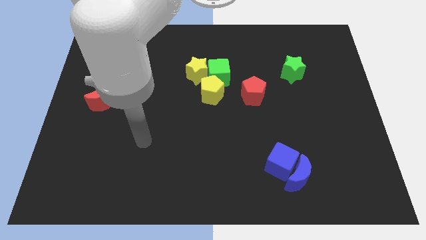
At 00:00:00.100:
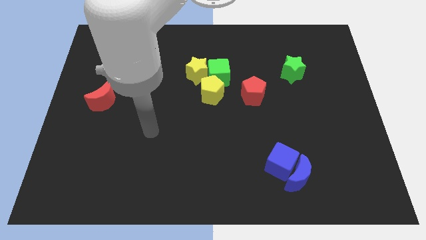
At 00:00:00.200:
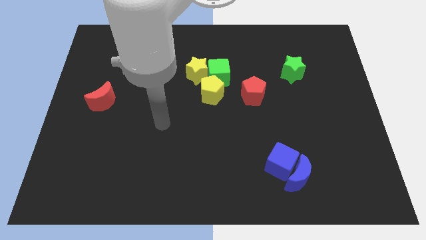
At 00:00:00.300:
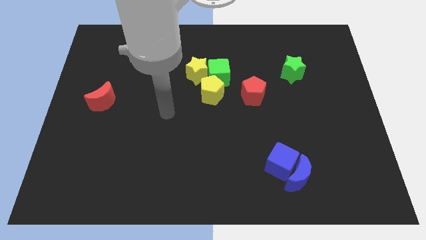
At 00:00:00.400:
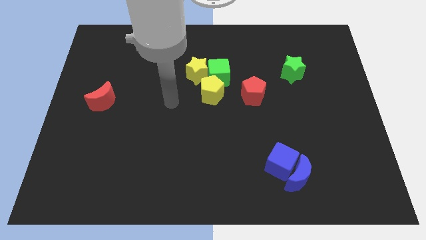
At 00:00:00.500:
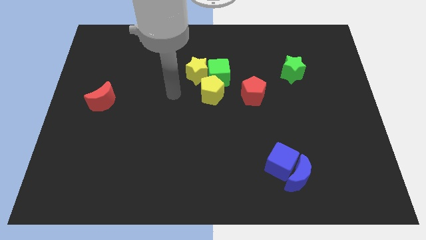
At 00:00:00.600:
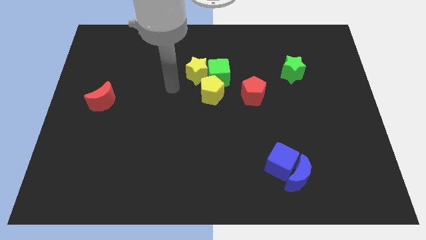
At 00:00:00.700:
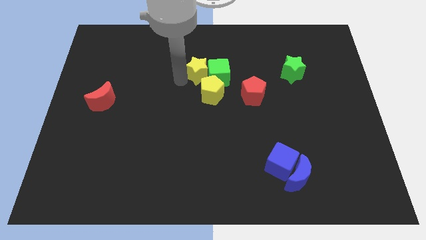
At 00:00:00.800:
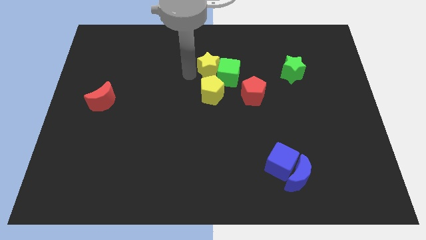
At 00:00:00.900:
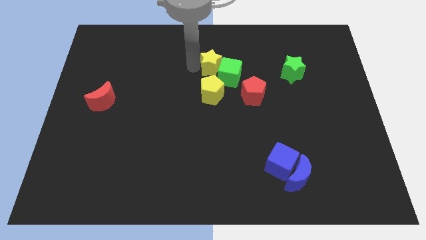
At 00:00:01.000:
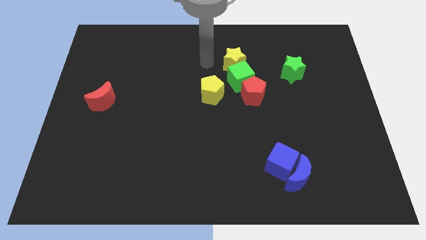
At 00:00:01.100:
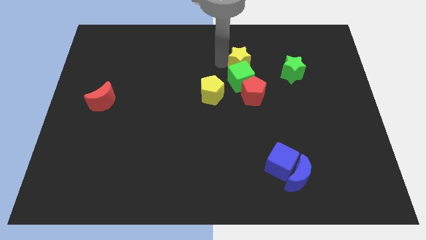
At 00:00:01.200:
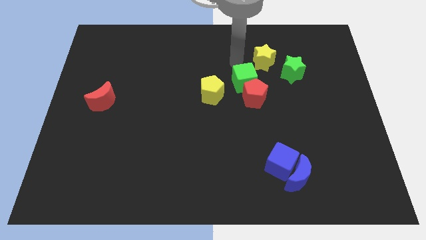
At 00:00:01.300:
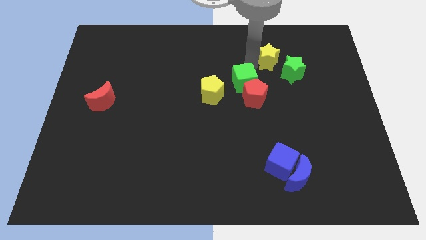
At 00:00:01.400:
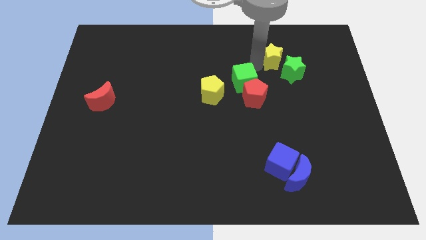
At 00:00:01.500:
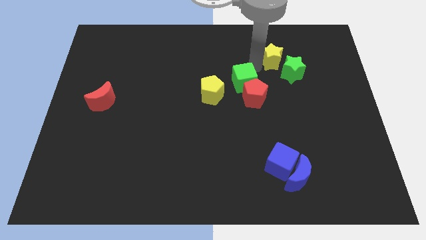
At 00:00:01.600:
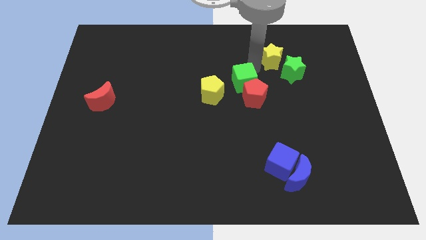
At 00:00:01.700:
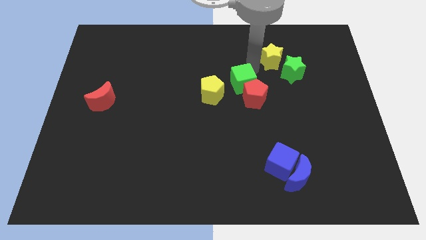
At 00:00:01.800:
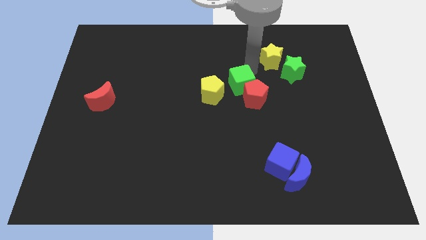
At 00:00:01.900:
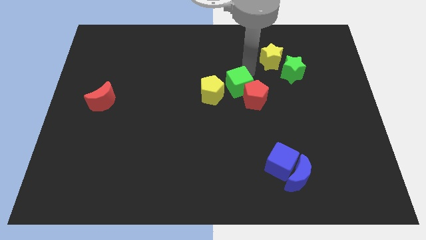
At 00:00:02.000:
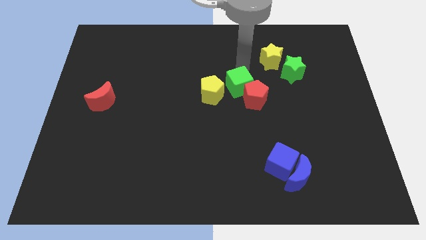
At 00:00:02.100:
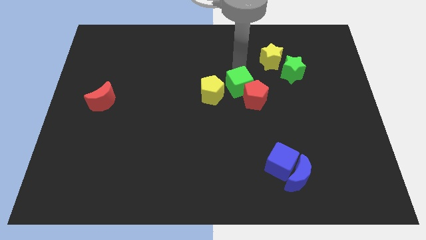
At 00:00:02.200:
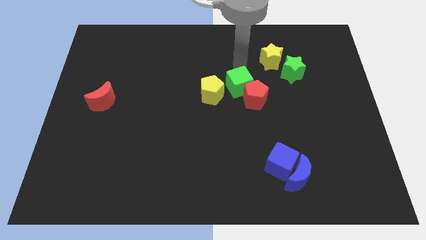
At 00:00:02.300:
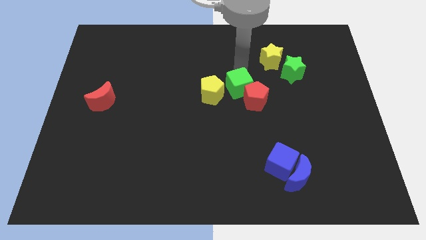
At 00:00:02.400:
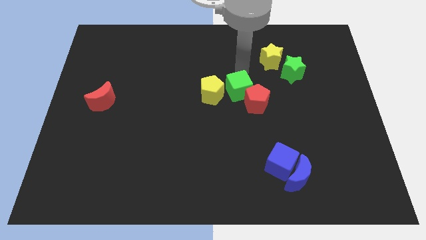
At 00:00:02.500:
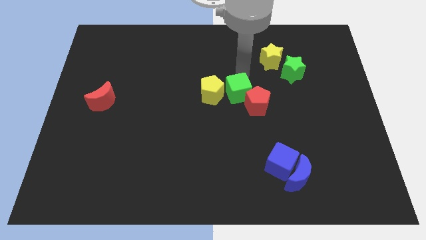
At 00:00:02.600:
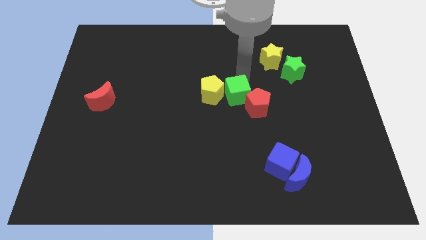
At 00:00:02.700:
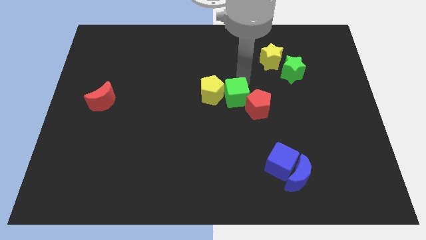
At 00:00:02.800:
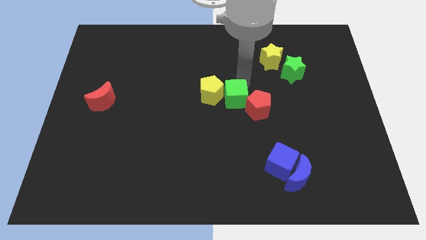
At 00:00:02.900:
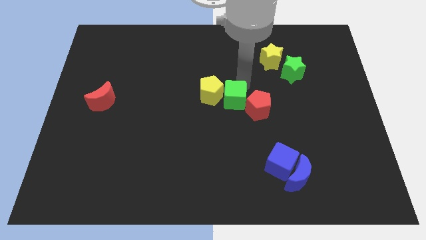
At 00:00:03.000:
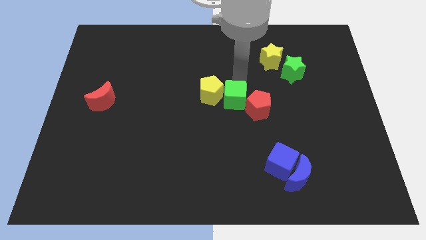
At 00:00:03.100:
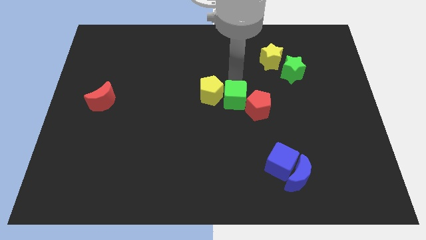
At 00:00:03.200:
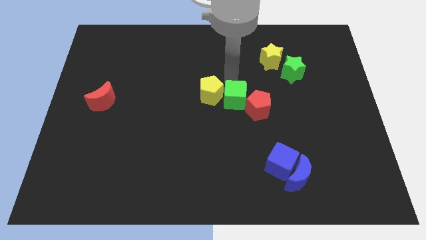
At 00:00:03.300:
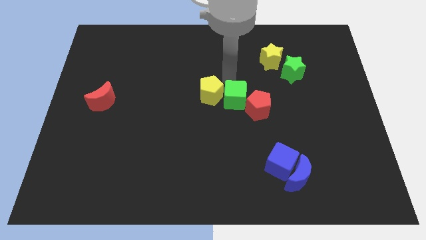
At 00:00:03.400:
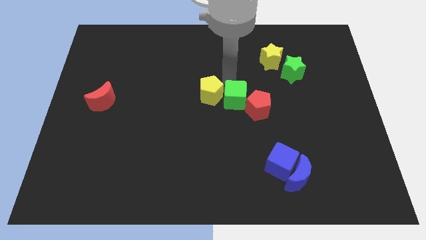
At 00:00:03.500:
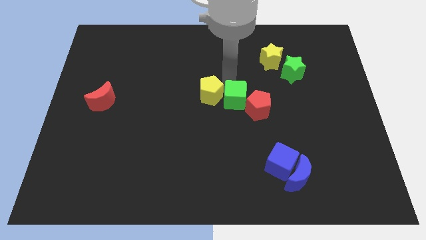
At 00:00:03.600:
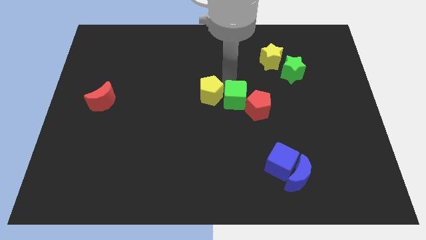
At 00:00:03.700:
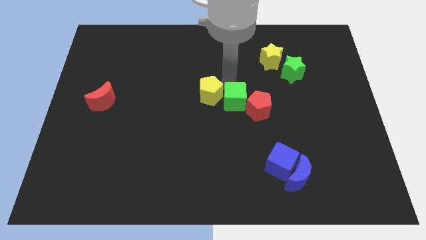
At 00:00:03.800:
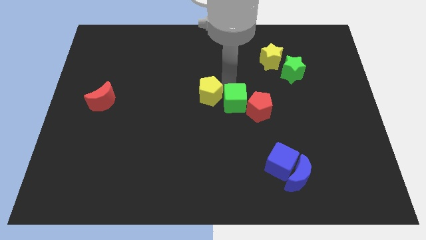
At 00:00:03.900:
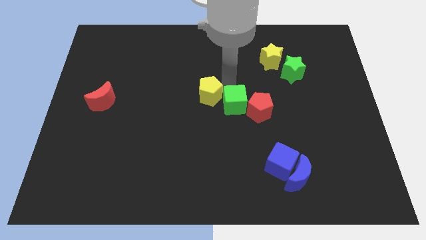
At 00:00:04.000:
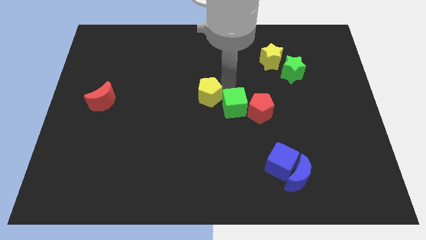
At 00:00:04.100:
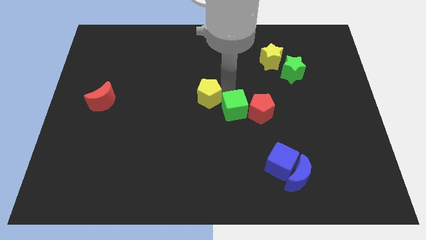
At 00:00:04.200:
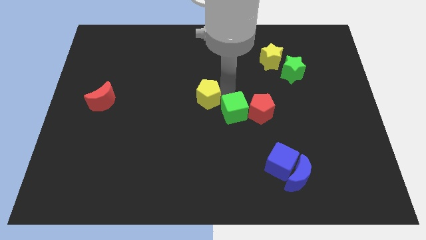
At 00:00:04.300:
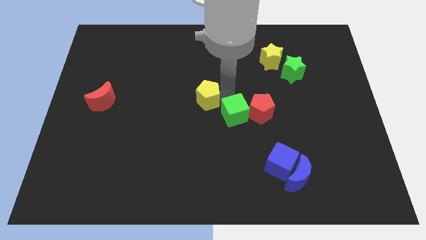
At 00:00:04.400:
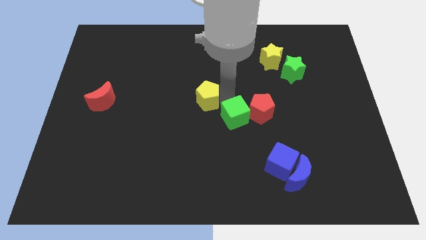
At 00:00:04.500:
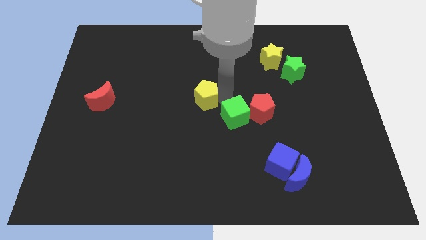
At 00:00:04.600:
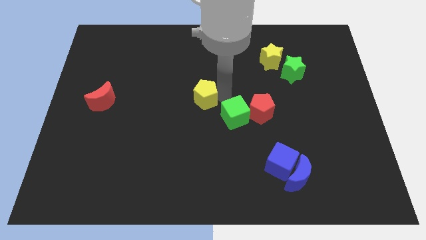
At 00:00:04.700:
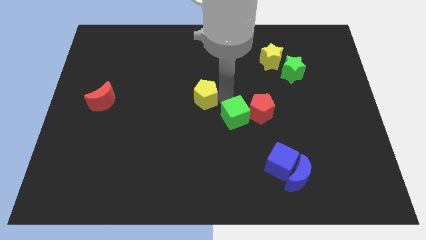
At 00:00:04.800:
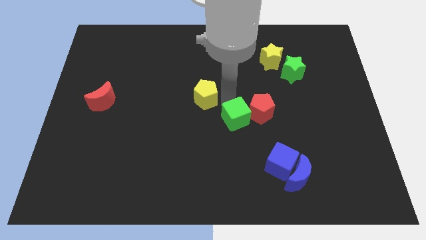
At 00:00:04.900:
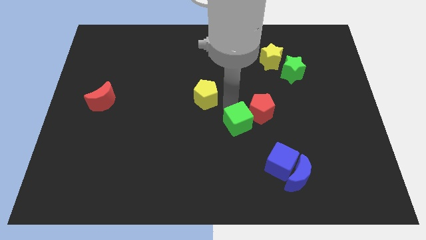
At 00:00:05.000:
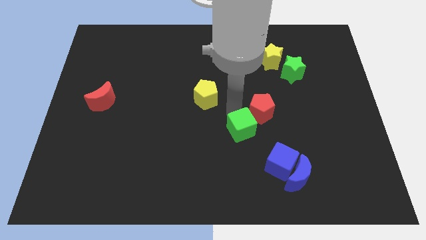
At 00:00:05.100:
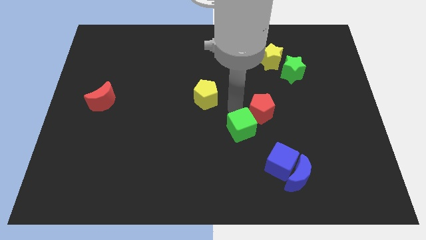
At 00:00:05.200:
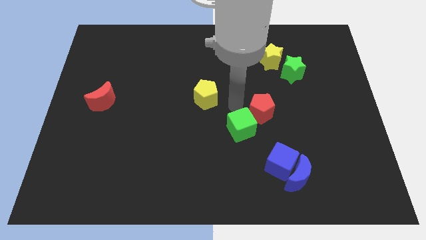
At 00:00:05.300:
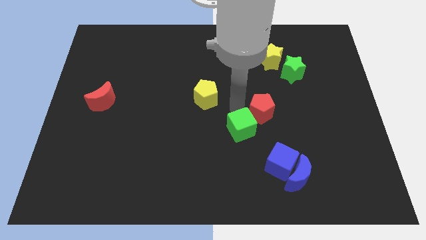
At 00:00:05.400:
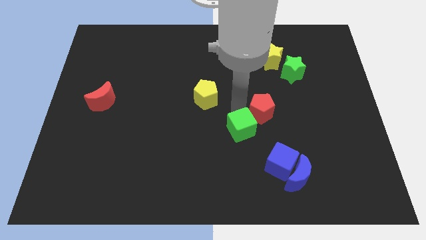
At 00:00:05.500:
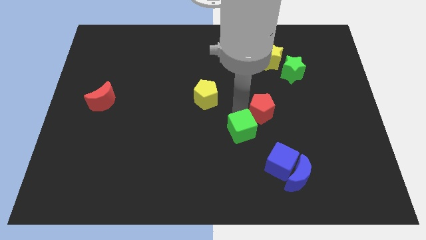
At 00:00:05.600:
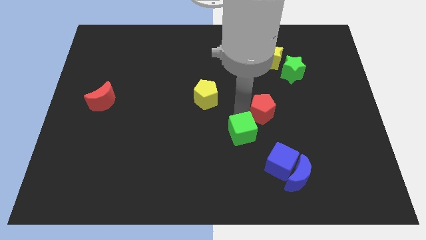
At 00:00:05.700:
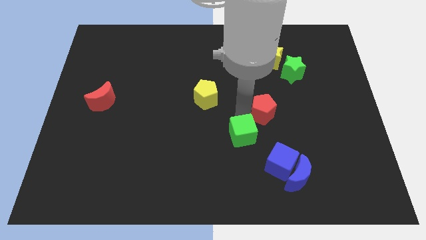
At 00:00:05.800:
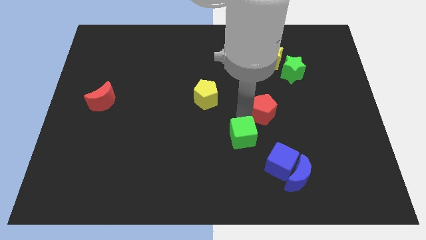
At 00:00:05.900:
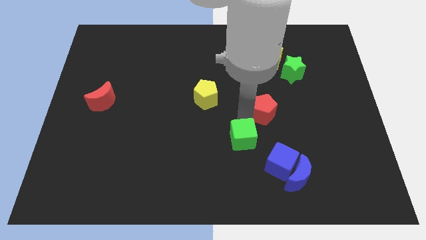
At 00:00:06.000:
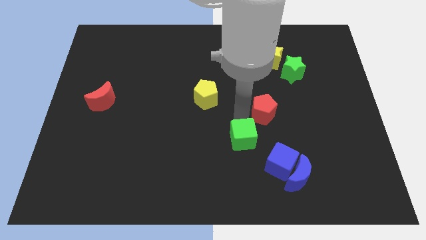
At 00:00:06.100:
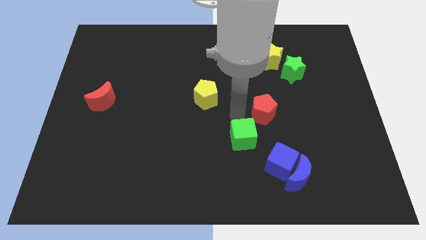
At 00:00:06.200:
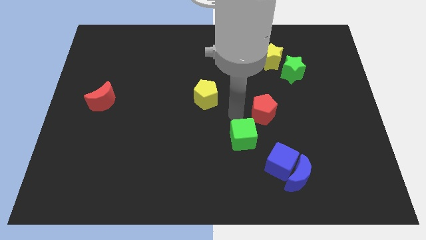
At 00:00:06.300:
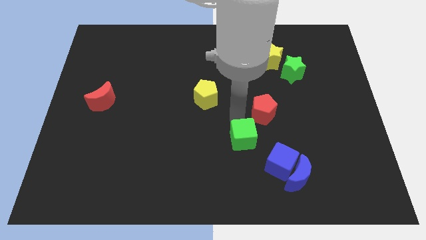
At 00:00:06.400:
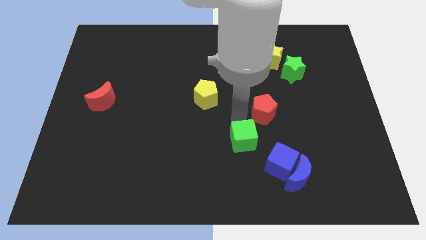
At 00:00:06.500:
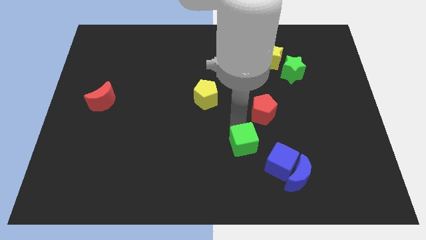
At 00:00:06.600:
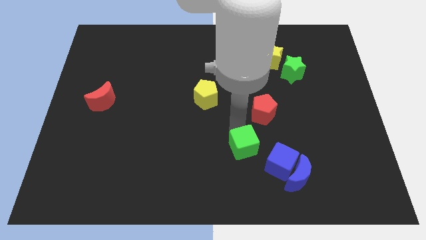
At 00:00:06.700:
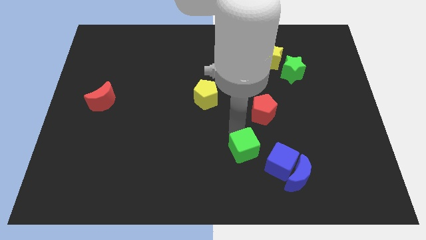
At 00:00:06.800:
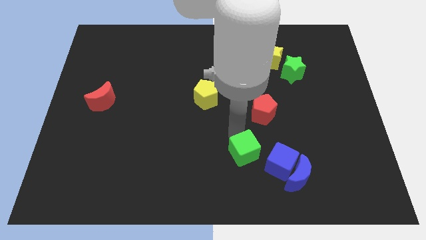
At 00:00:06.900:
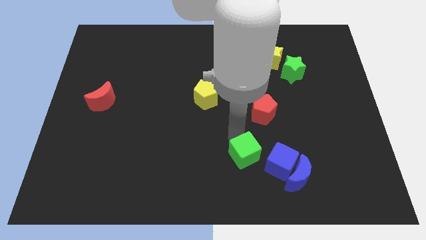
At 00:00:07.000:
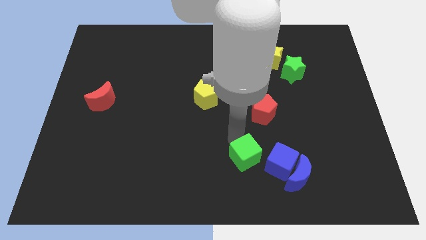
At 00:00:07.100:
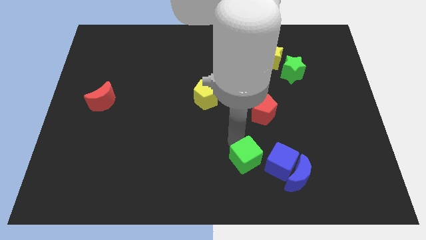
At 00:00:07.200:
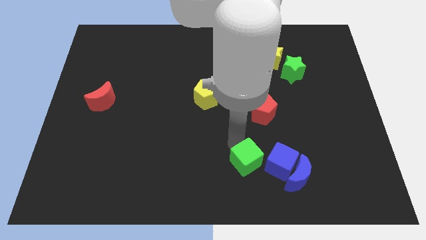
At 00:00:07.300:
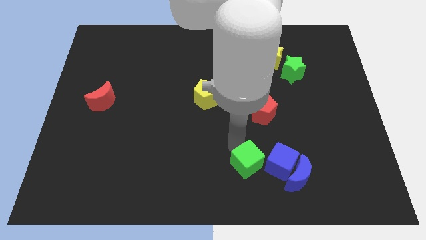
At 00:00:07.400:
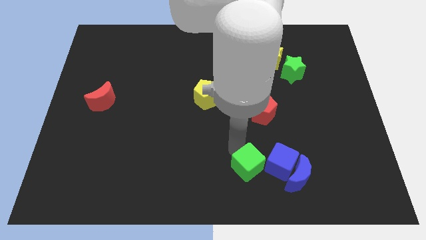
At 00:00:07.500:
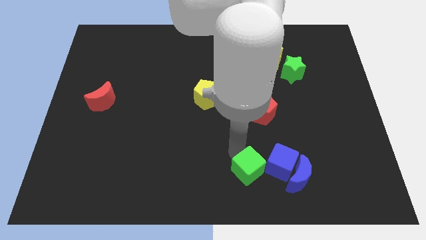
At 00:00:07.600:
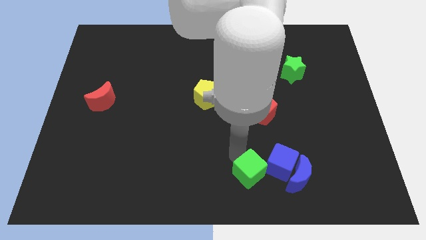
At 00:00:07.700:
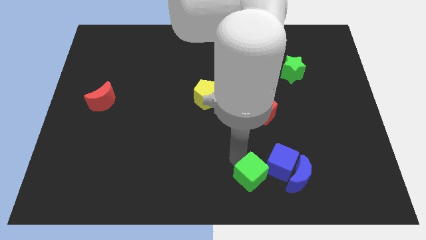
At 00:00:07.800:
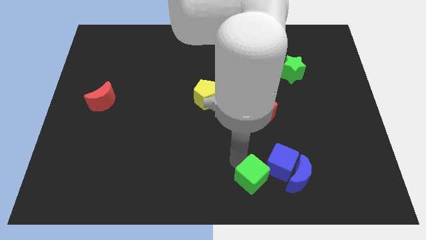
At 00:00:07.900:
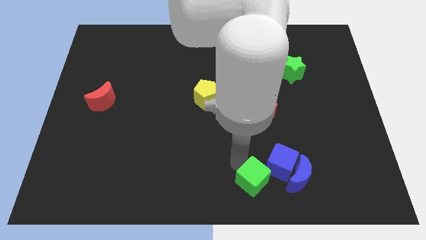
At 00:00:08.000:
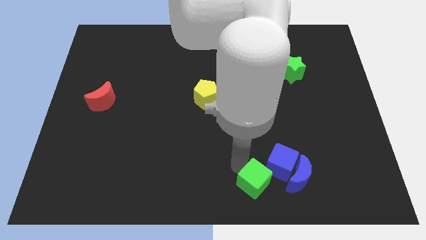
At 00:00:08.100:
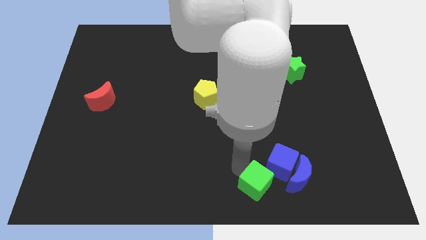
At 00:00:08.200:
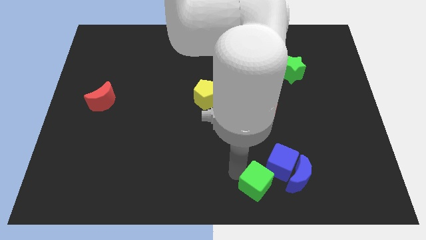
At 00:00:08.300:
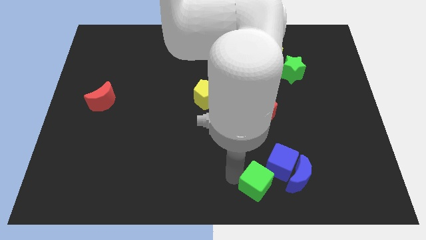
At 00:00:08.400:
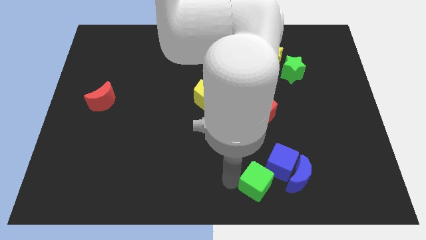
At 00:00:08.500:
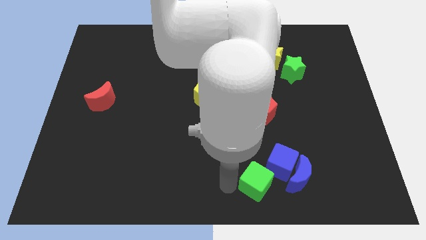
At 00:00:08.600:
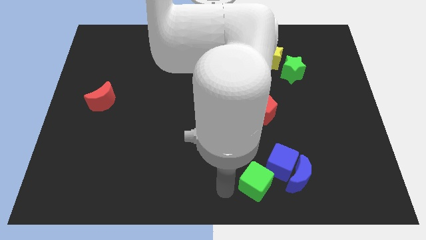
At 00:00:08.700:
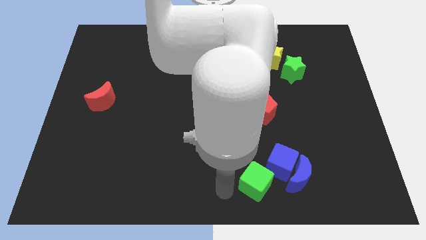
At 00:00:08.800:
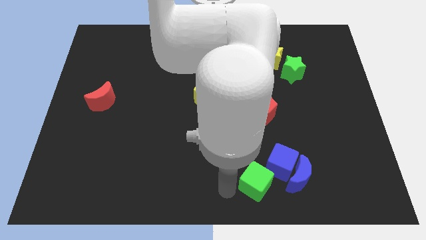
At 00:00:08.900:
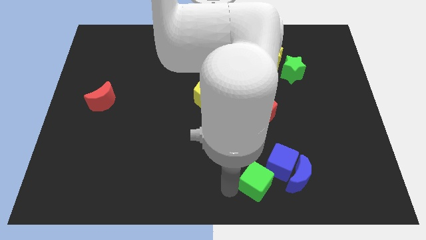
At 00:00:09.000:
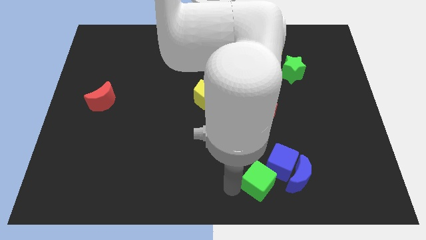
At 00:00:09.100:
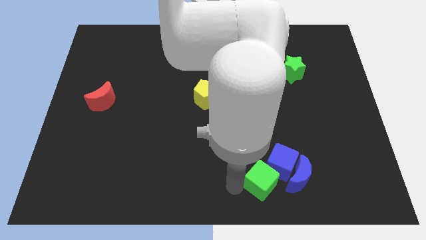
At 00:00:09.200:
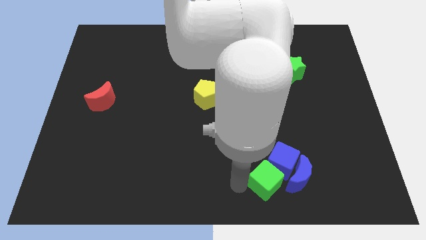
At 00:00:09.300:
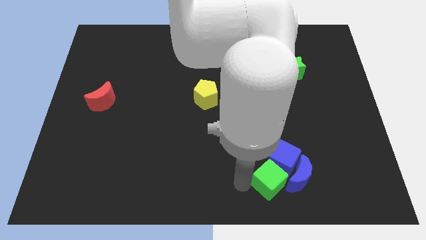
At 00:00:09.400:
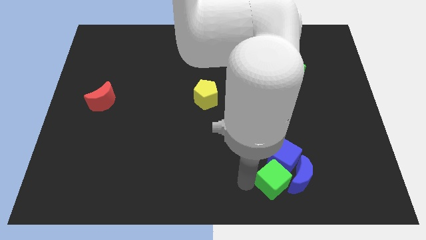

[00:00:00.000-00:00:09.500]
put the green cube next to the blue moon
